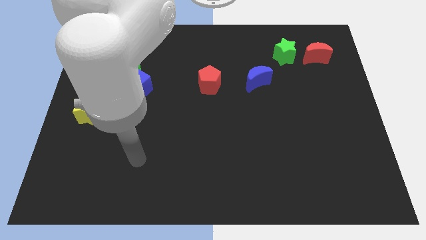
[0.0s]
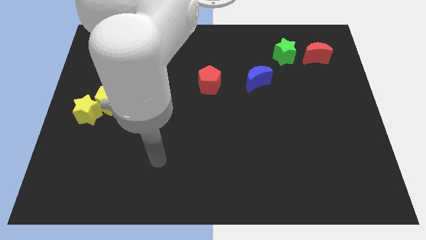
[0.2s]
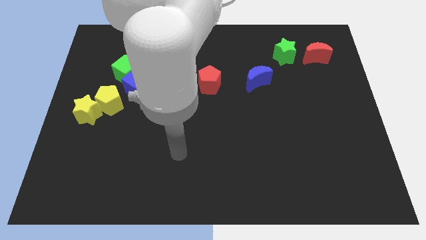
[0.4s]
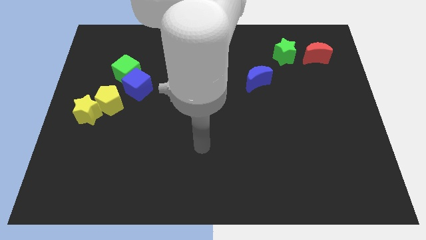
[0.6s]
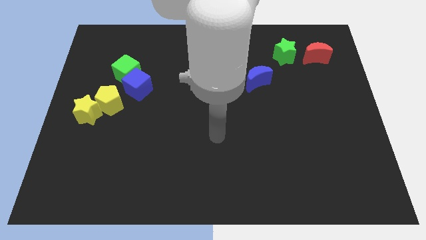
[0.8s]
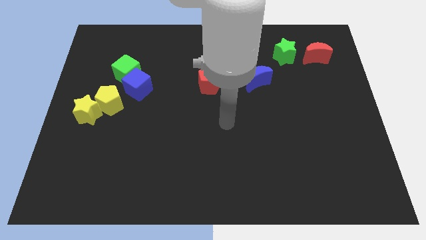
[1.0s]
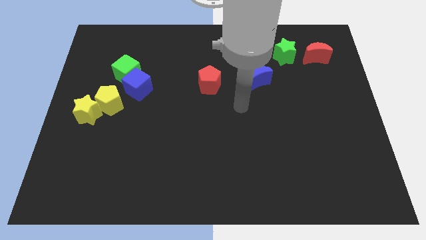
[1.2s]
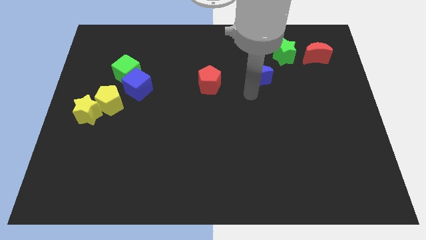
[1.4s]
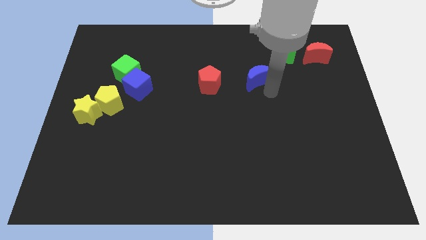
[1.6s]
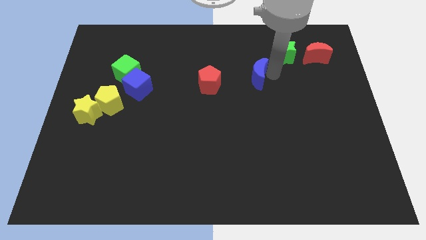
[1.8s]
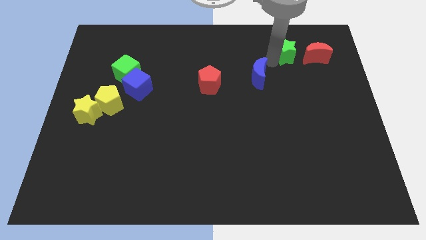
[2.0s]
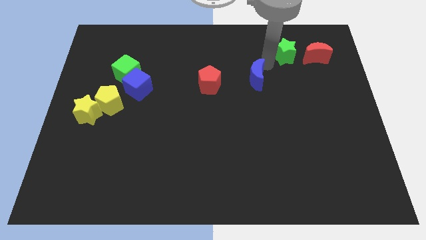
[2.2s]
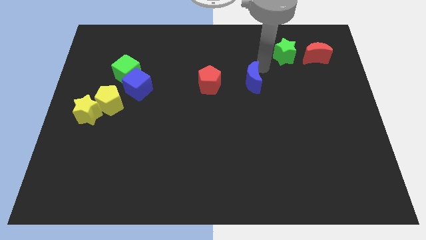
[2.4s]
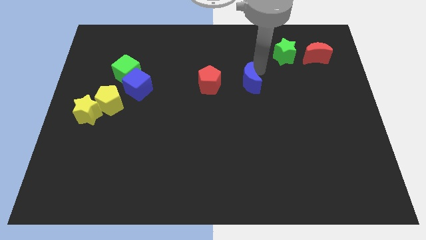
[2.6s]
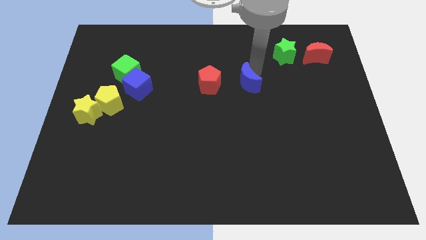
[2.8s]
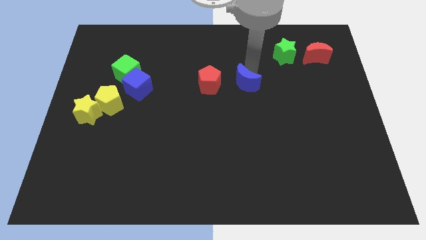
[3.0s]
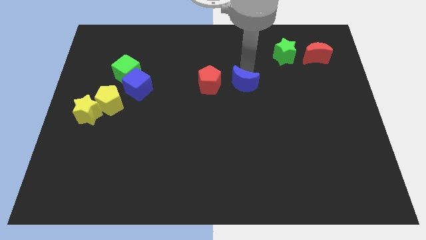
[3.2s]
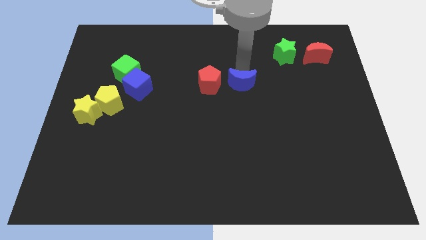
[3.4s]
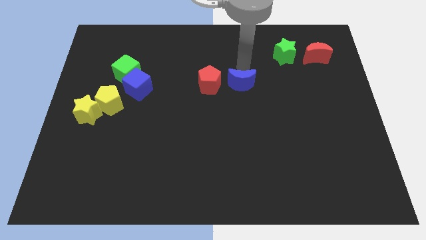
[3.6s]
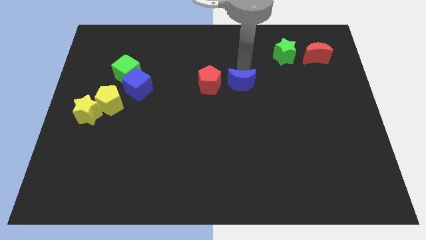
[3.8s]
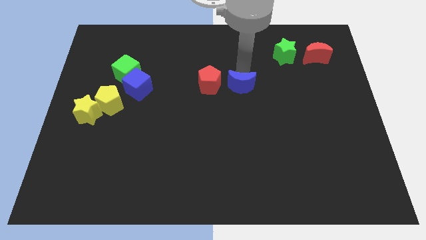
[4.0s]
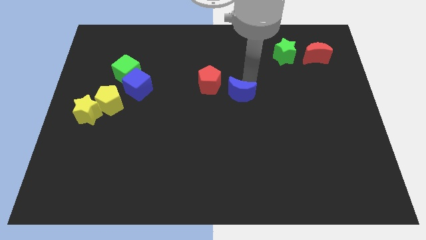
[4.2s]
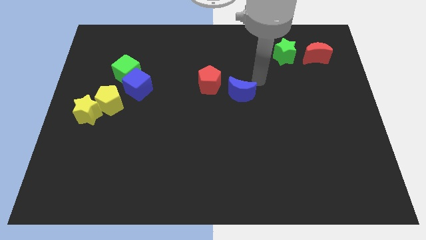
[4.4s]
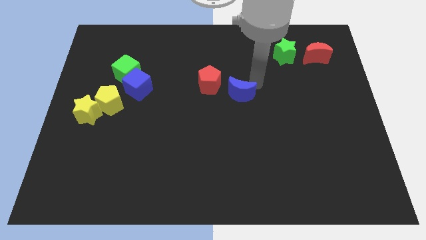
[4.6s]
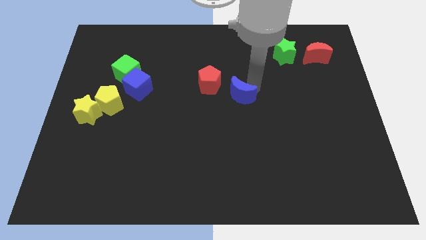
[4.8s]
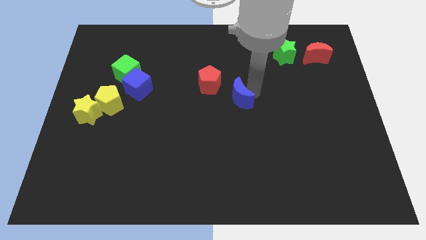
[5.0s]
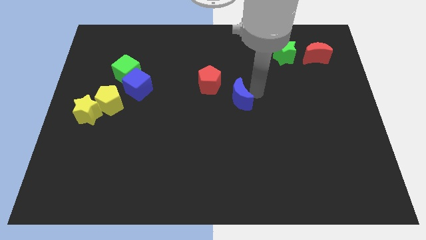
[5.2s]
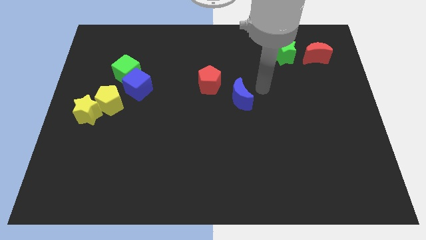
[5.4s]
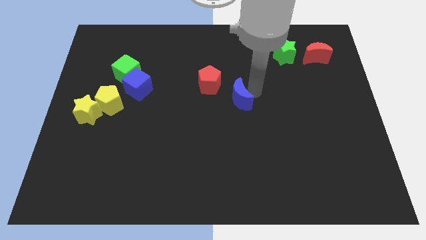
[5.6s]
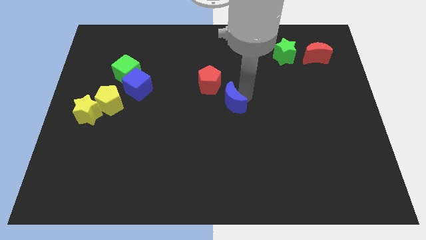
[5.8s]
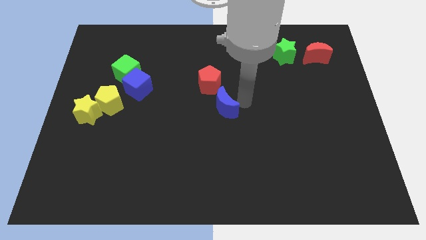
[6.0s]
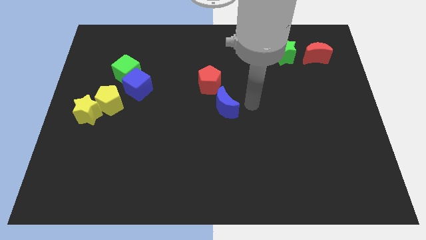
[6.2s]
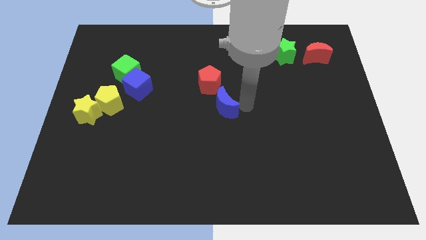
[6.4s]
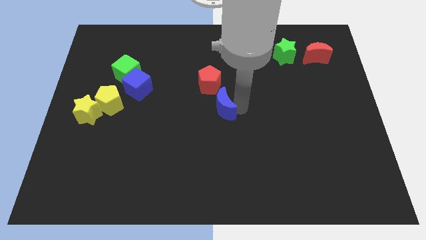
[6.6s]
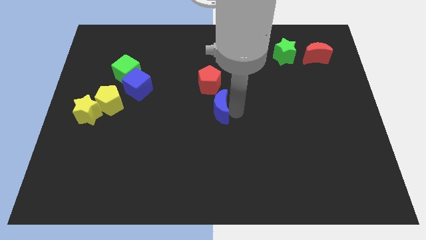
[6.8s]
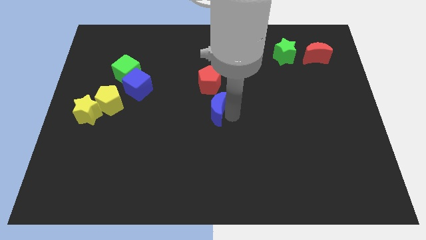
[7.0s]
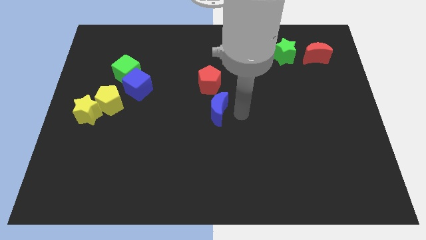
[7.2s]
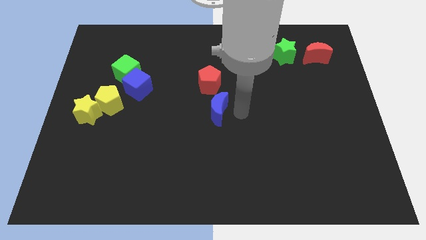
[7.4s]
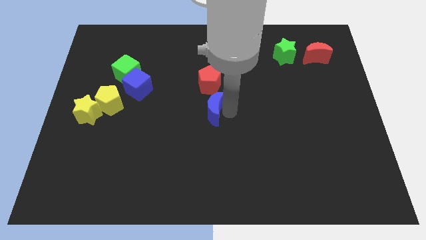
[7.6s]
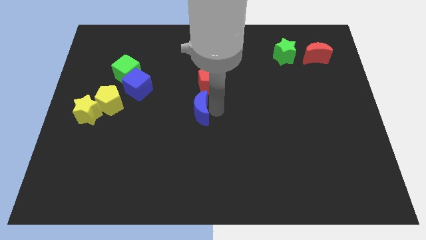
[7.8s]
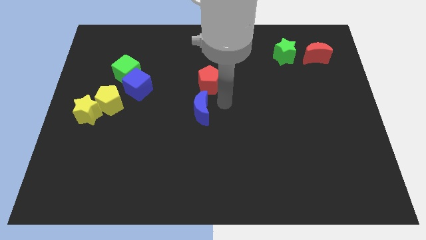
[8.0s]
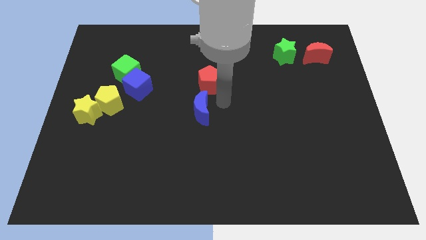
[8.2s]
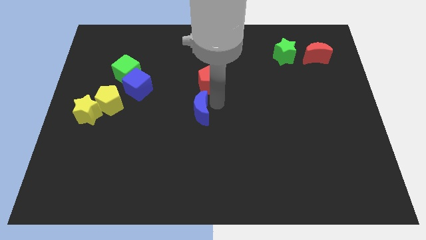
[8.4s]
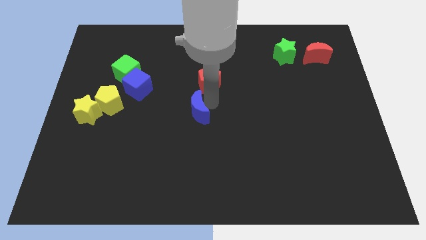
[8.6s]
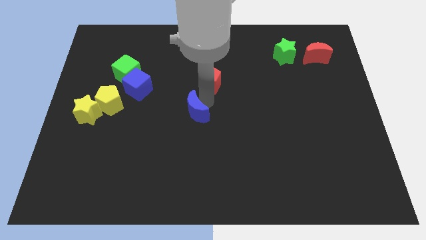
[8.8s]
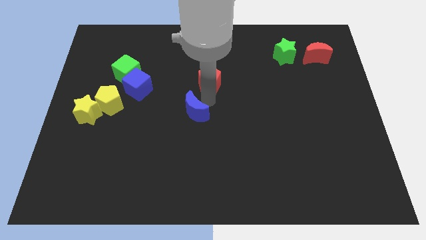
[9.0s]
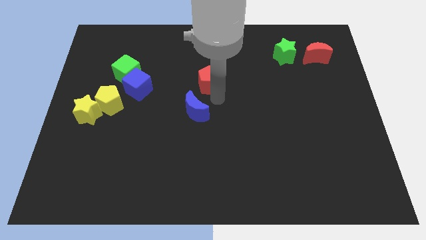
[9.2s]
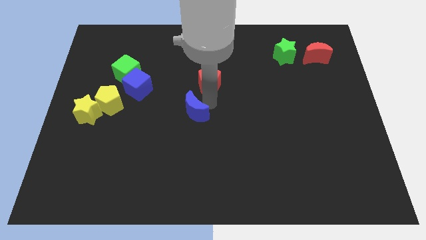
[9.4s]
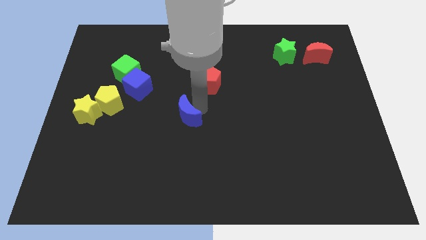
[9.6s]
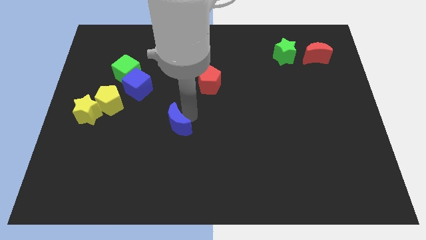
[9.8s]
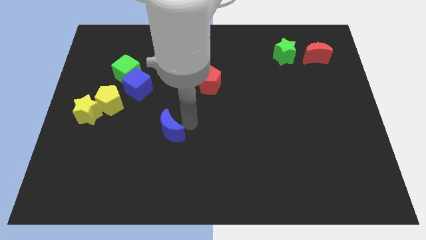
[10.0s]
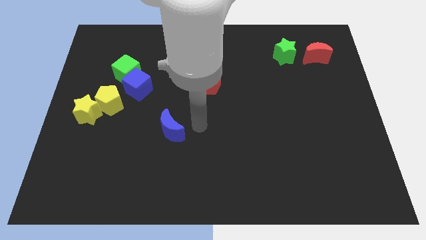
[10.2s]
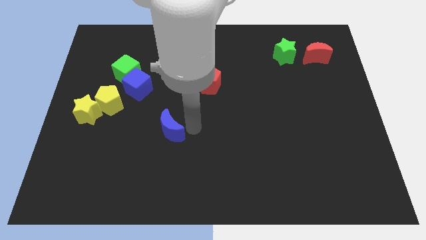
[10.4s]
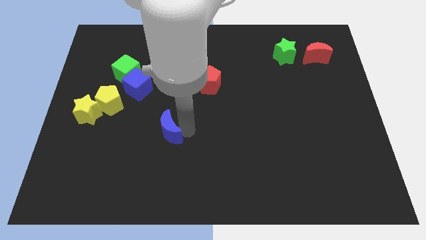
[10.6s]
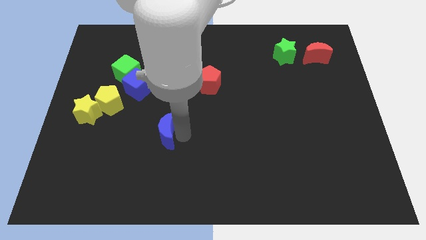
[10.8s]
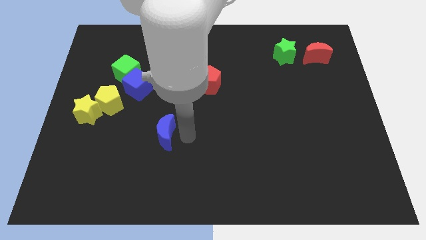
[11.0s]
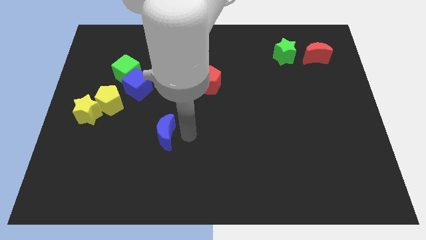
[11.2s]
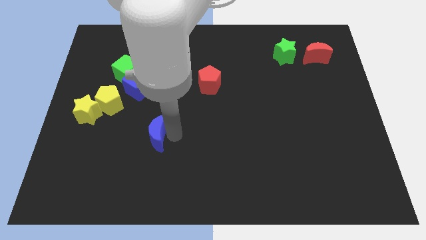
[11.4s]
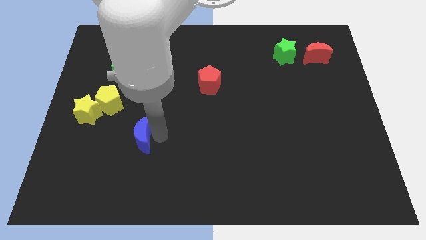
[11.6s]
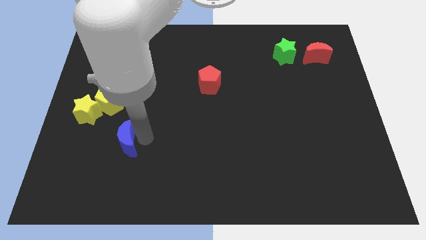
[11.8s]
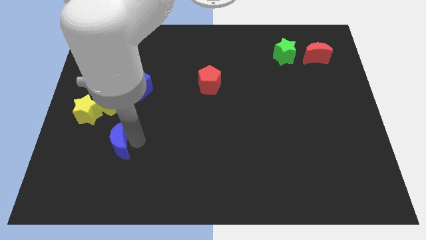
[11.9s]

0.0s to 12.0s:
slide the blue moon below the yellow pentagon

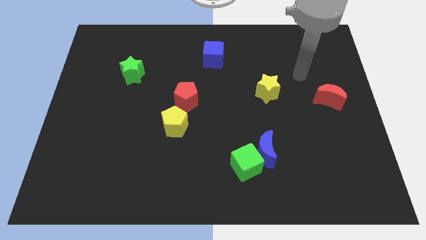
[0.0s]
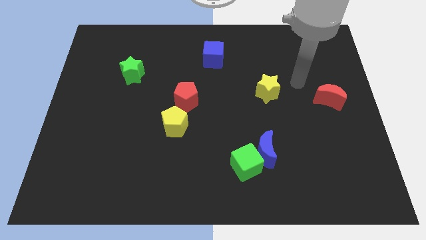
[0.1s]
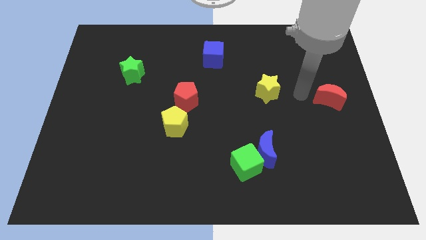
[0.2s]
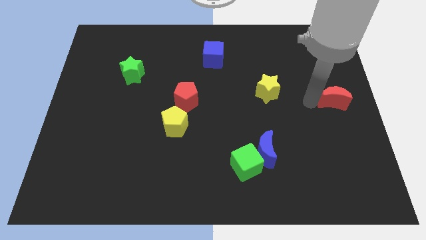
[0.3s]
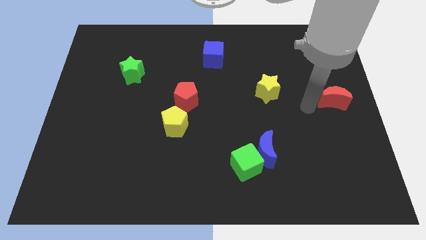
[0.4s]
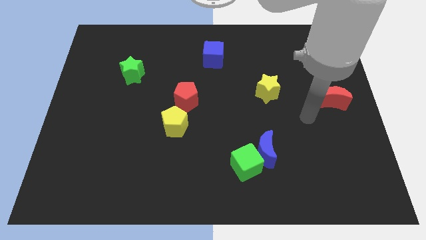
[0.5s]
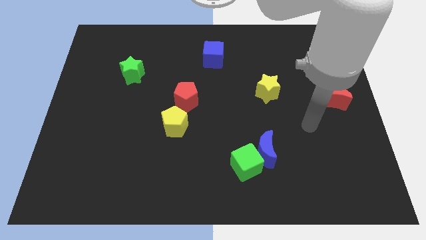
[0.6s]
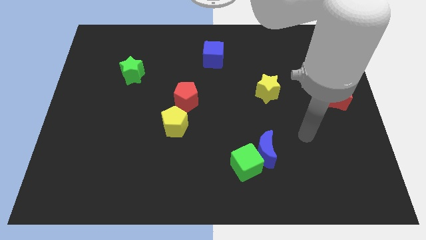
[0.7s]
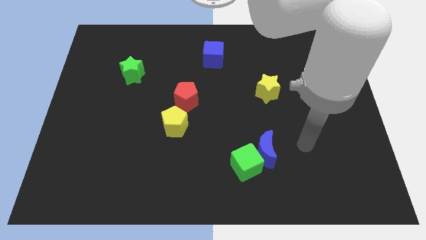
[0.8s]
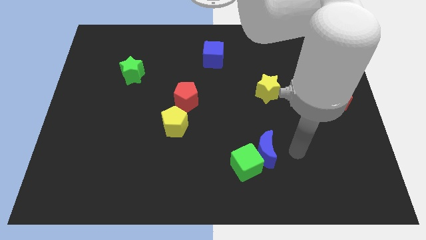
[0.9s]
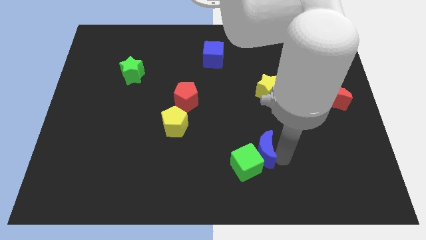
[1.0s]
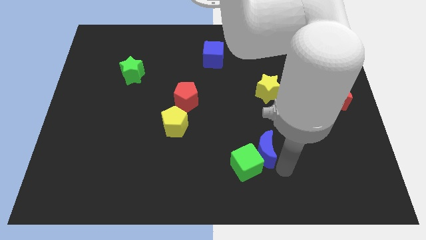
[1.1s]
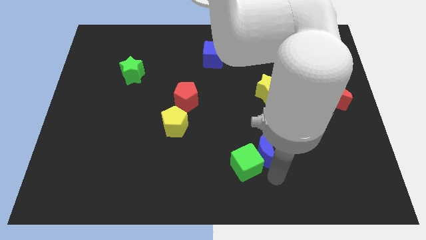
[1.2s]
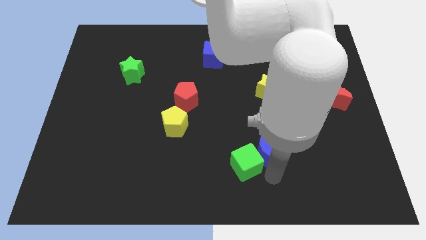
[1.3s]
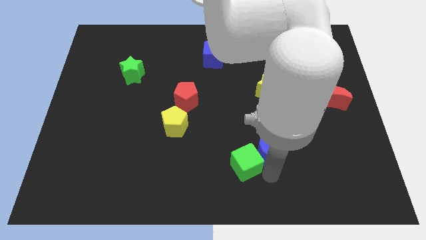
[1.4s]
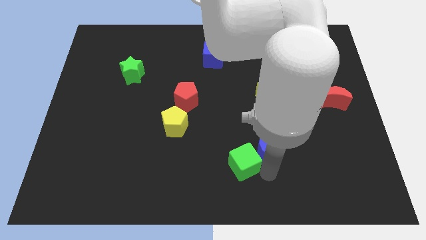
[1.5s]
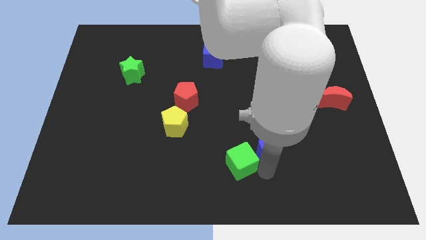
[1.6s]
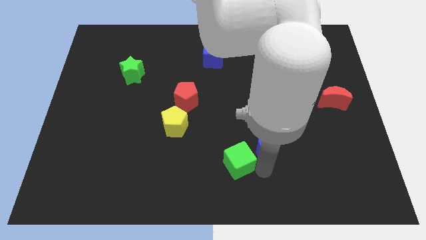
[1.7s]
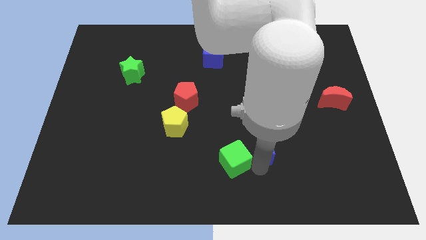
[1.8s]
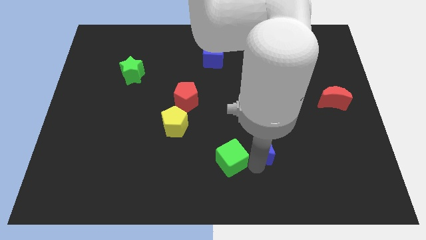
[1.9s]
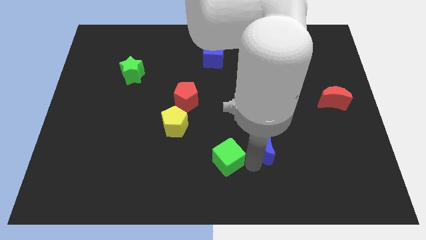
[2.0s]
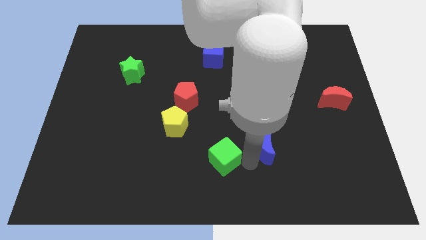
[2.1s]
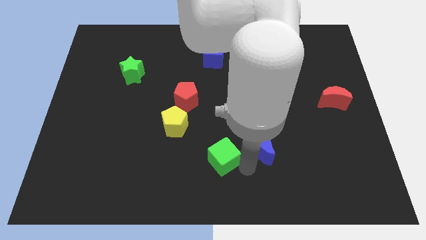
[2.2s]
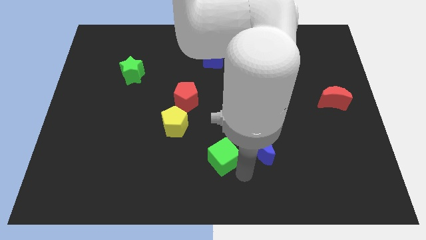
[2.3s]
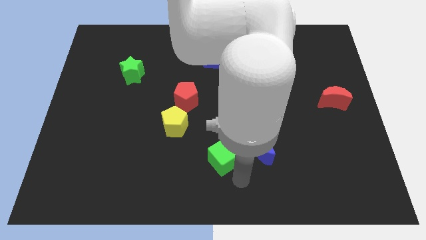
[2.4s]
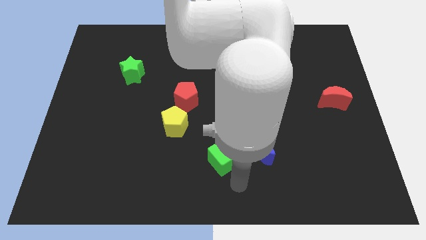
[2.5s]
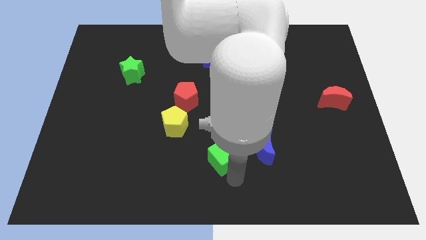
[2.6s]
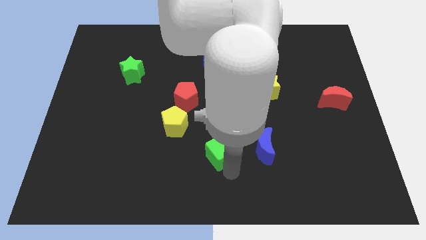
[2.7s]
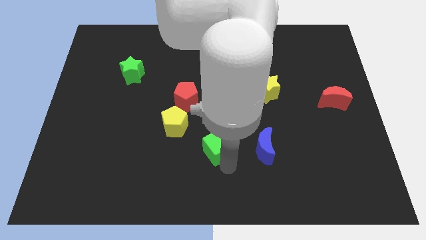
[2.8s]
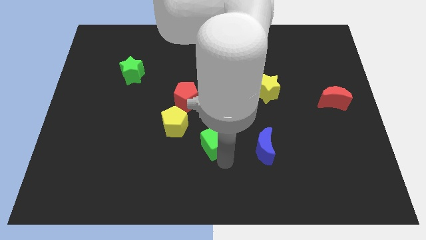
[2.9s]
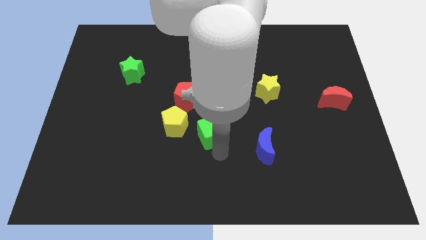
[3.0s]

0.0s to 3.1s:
slide the green cube to the bottom right of the red pentagon
